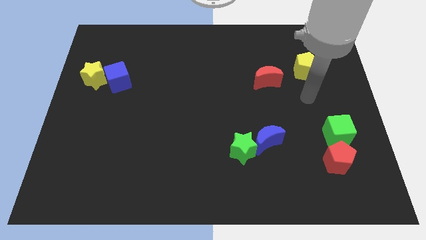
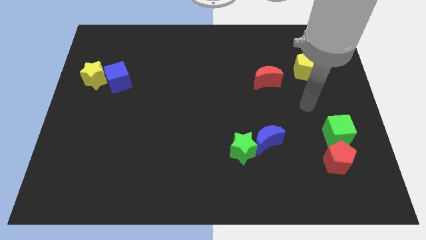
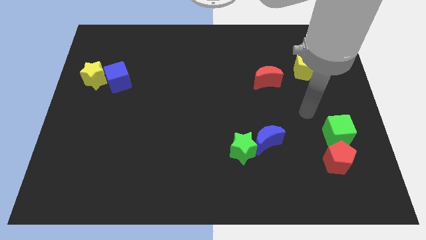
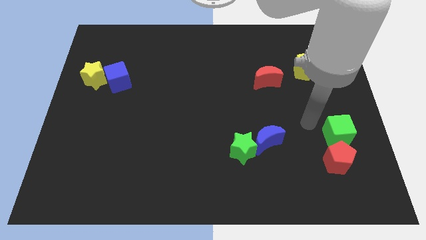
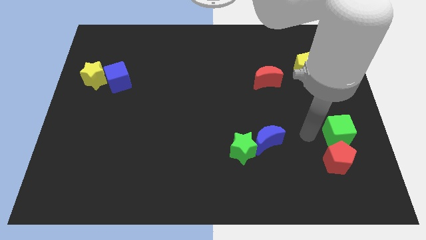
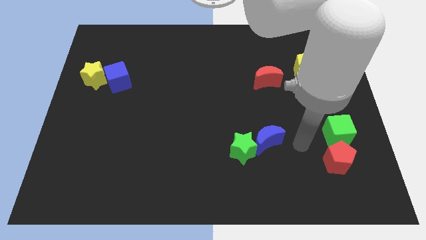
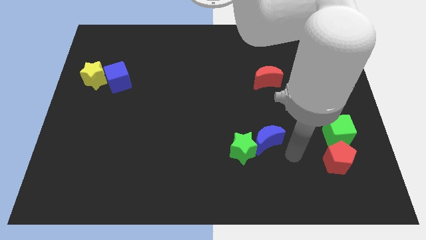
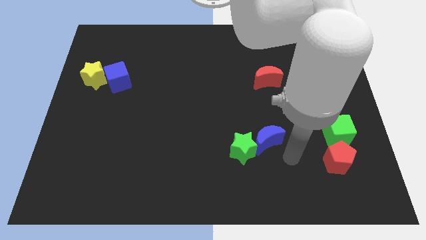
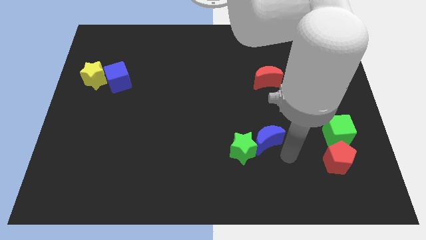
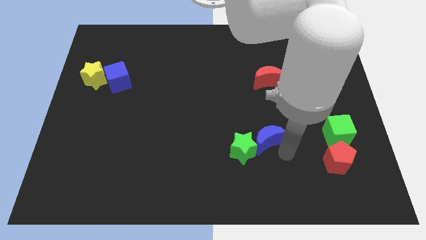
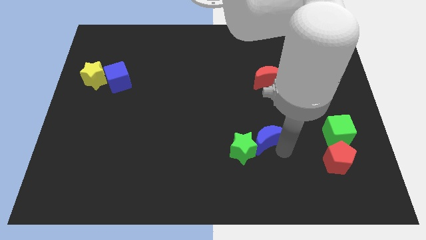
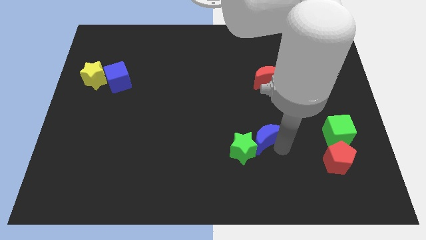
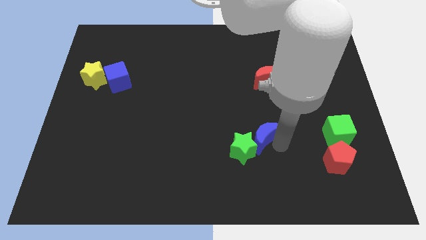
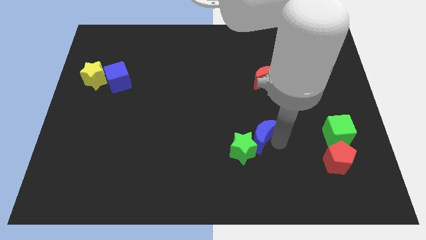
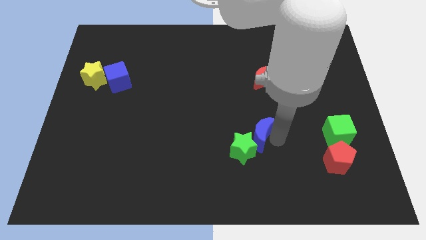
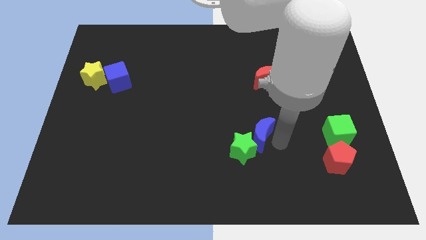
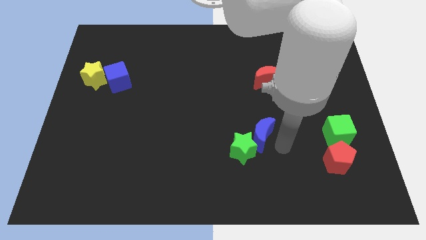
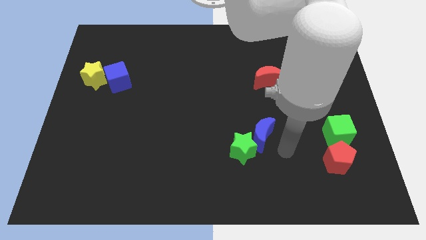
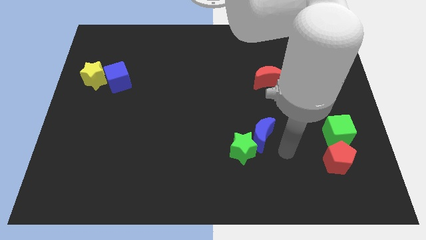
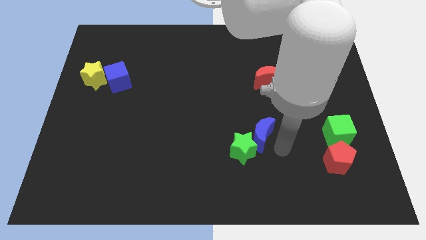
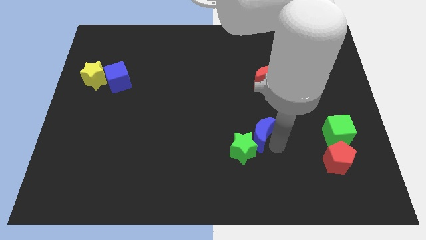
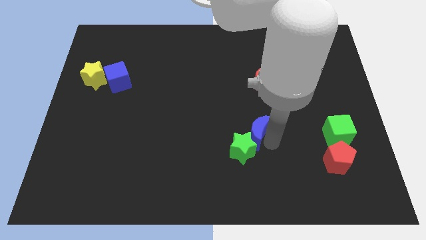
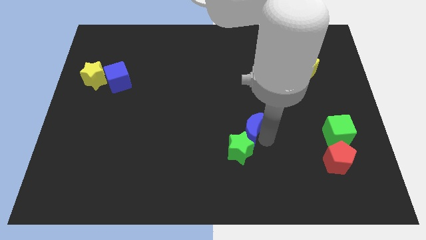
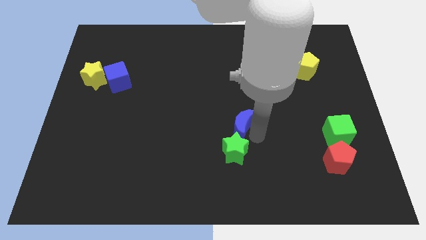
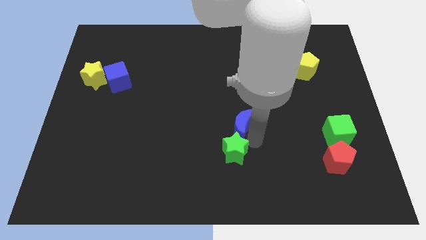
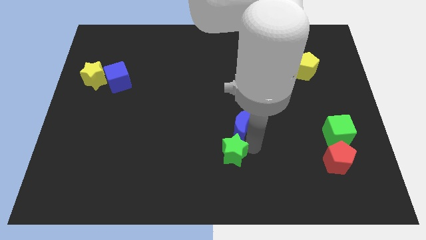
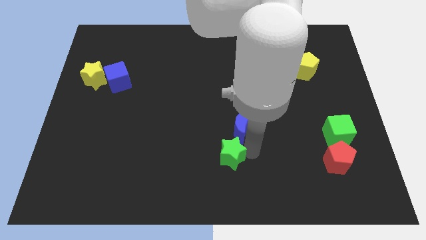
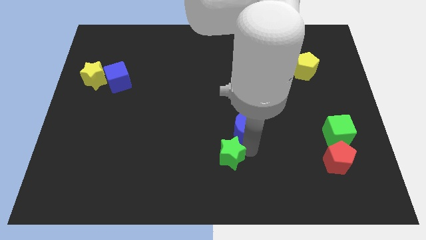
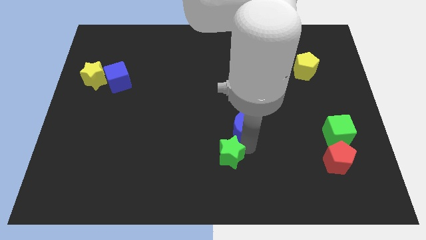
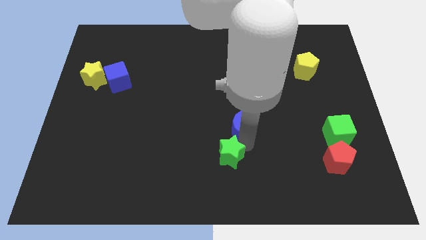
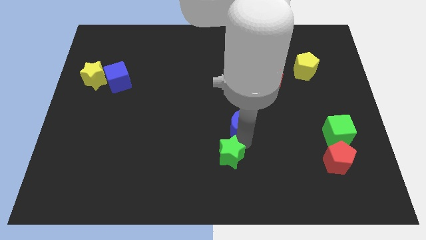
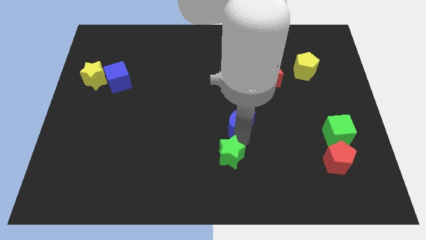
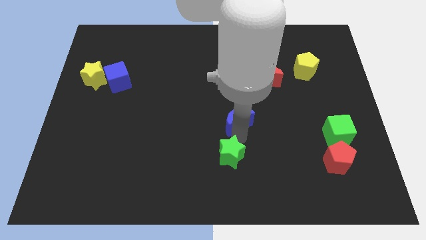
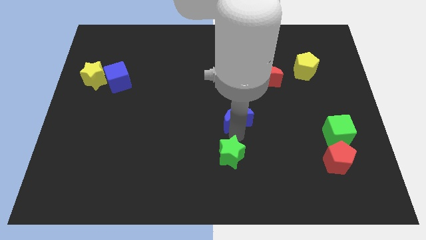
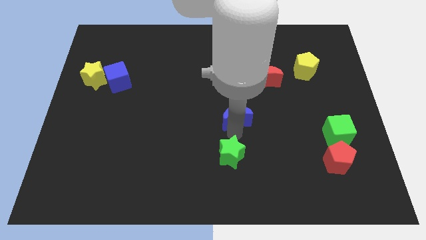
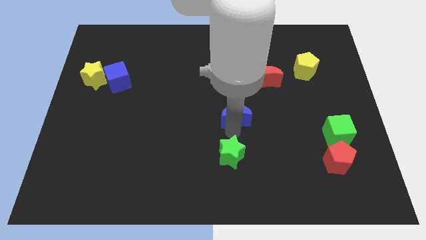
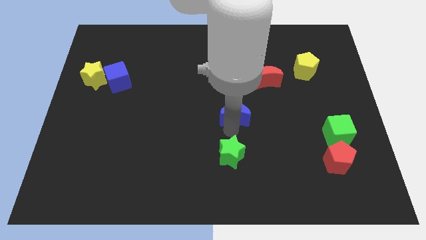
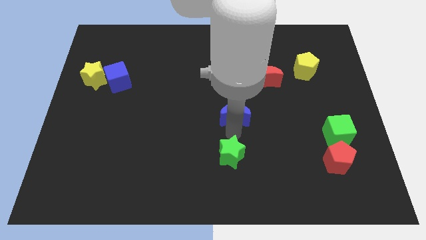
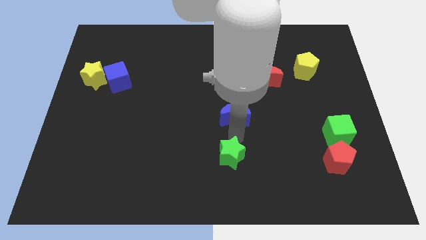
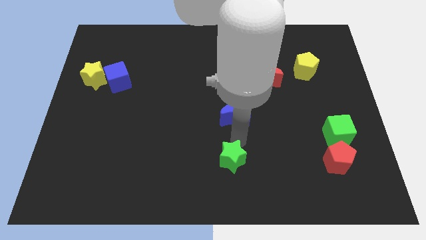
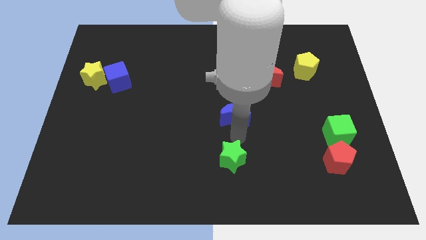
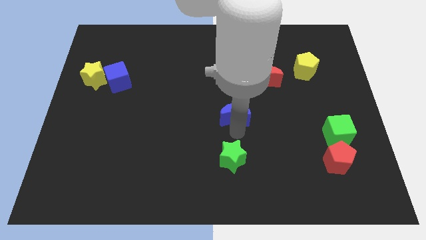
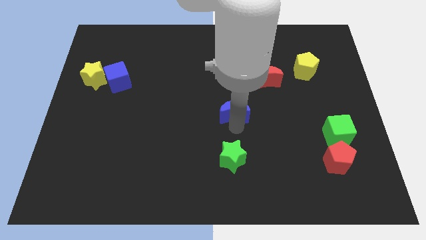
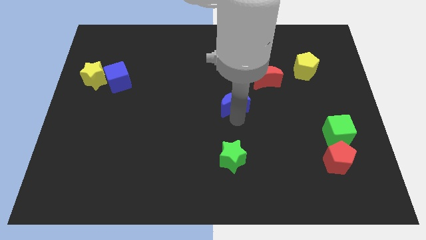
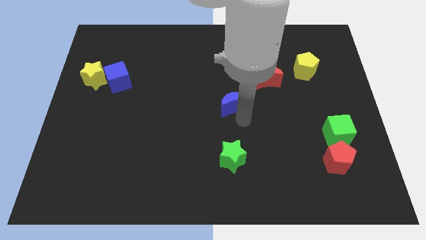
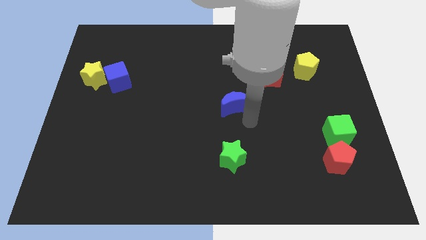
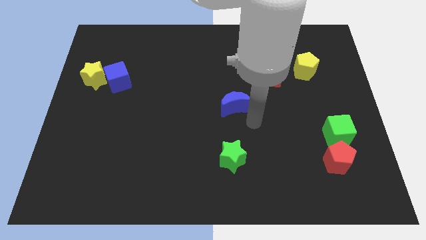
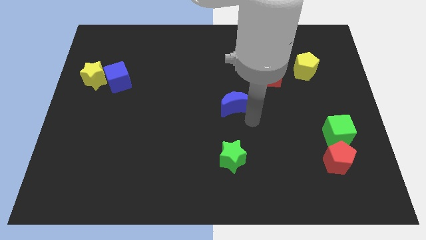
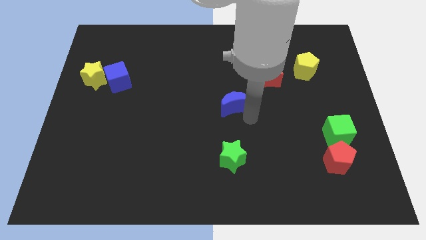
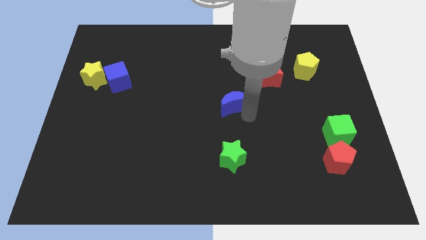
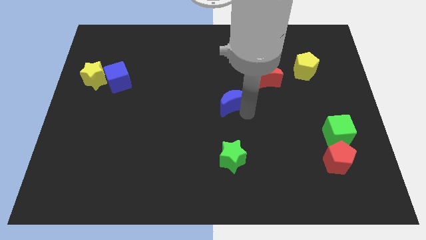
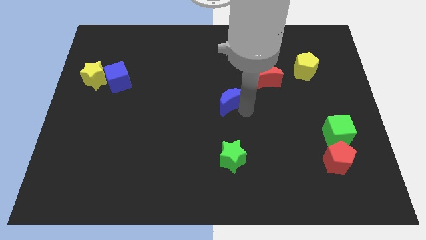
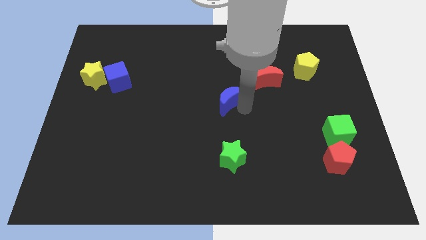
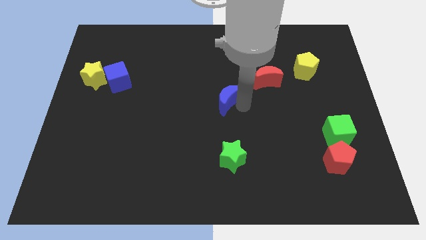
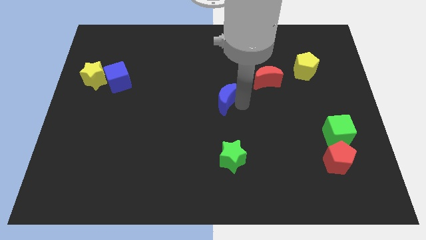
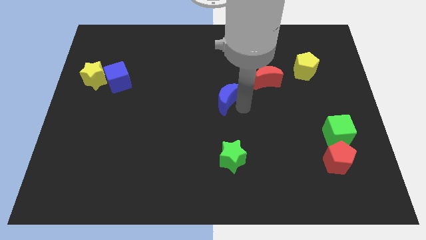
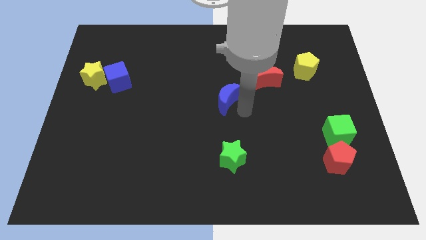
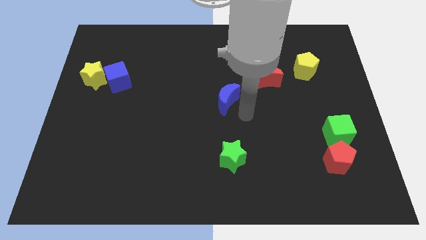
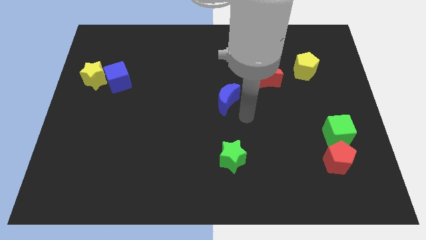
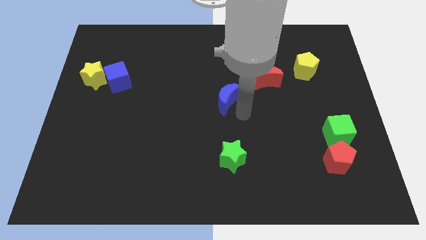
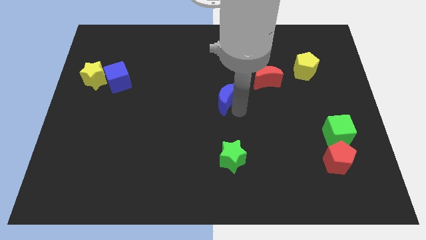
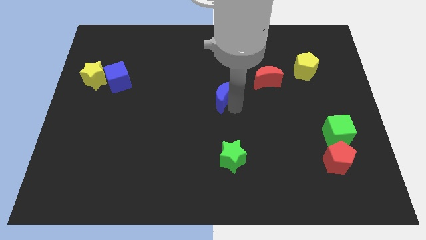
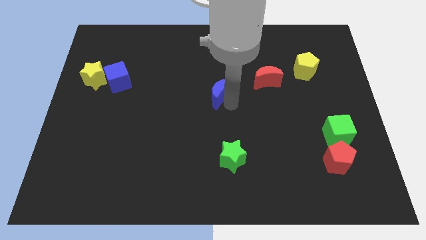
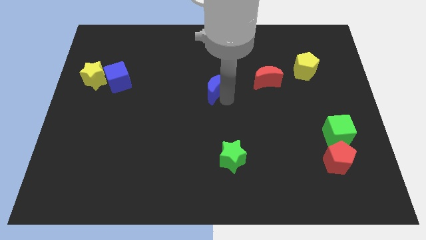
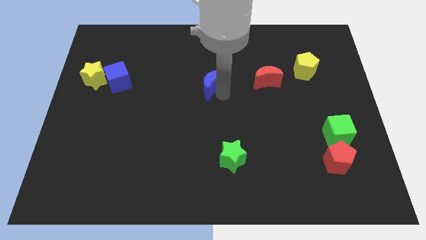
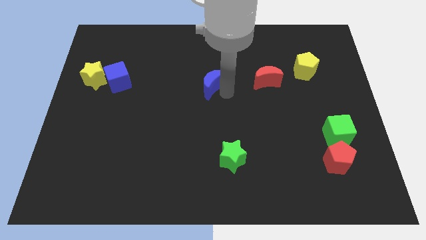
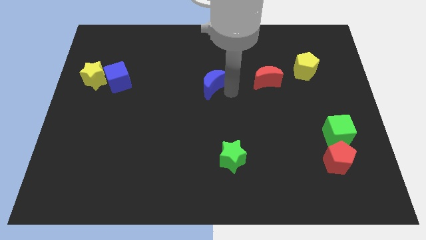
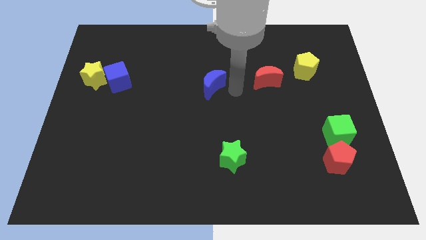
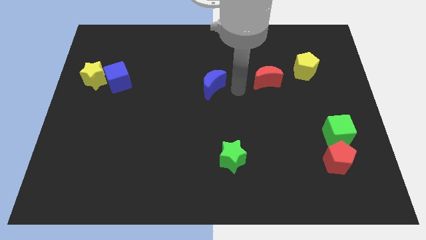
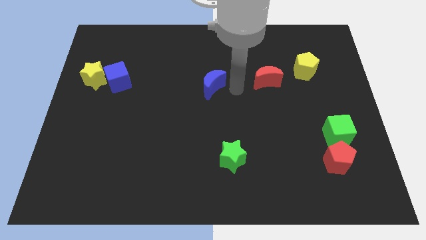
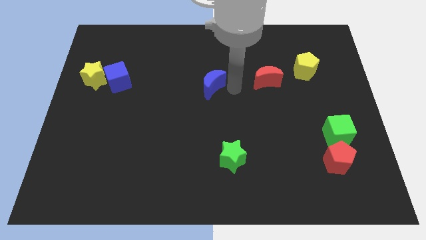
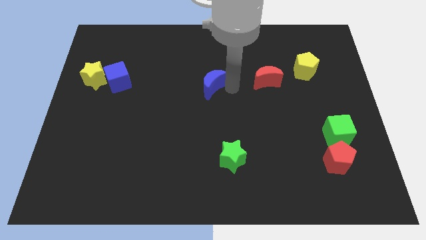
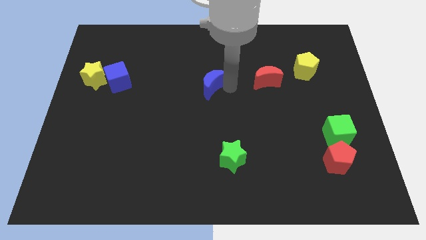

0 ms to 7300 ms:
slide the blue moon up and to the left

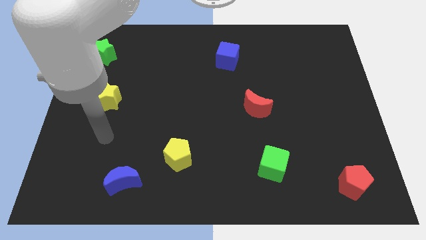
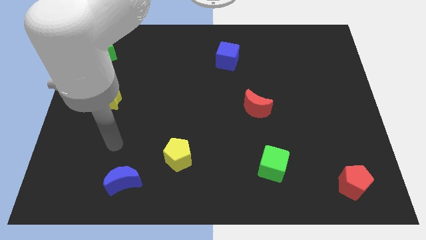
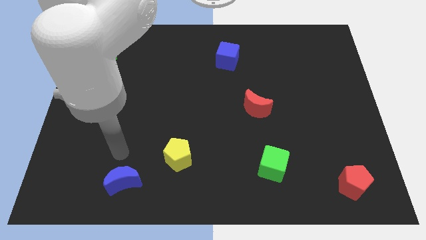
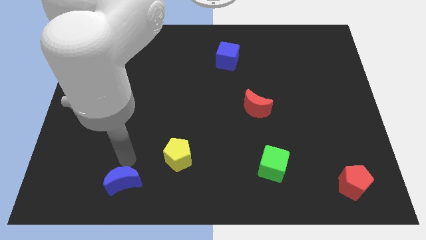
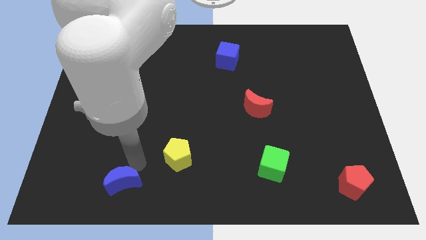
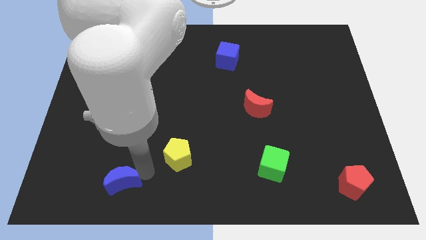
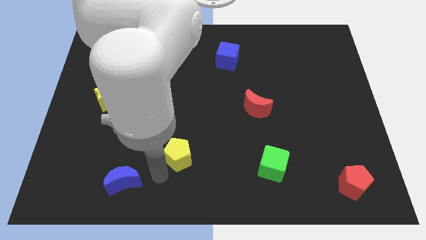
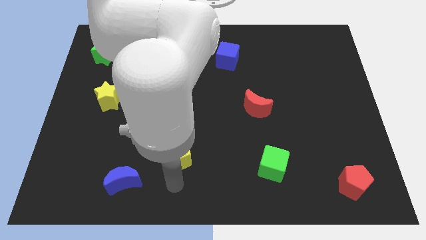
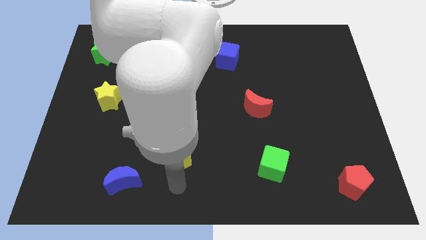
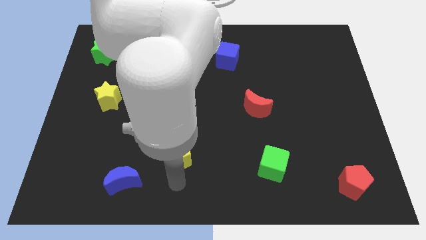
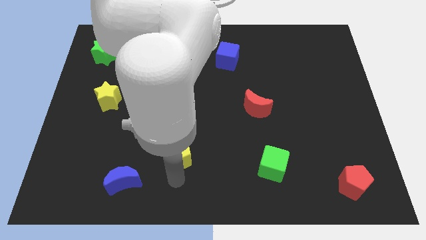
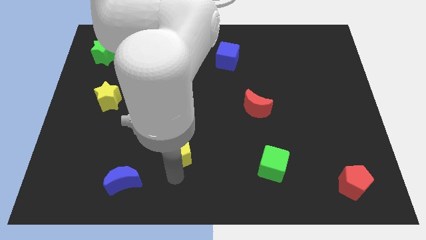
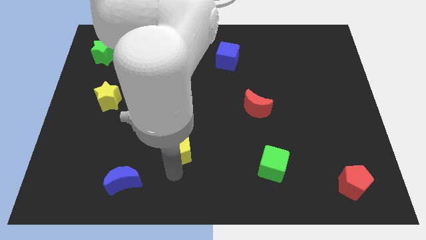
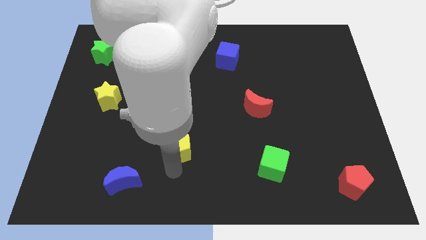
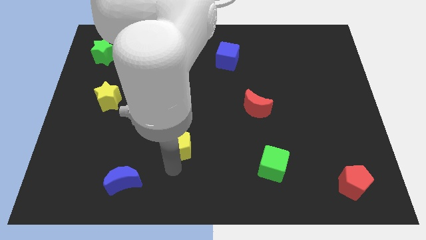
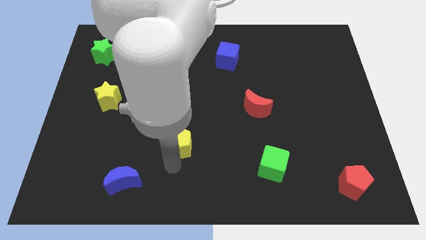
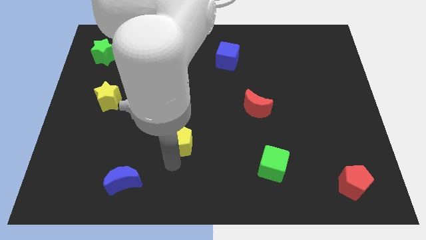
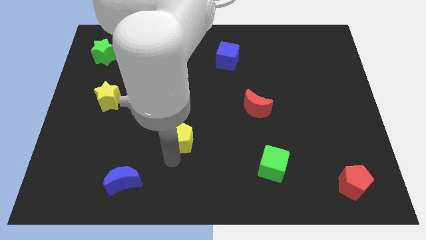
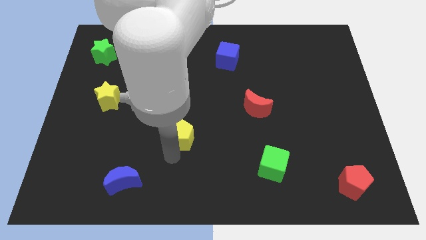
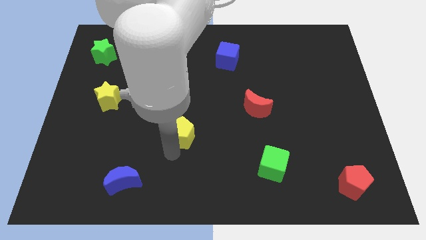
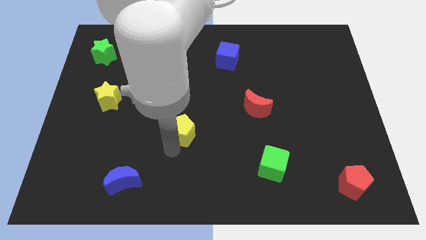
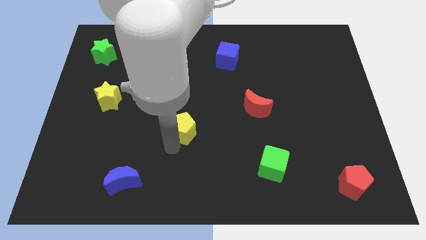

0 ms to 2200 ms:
slightly slide the yellow pentagon up
